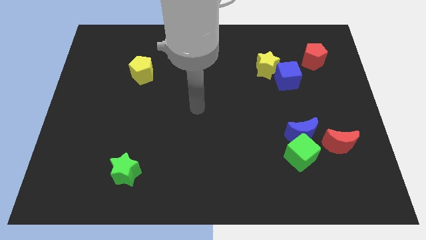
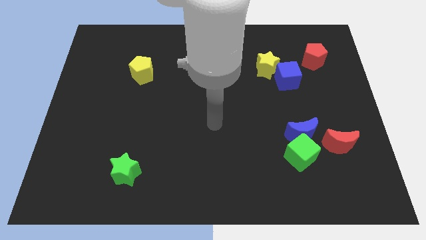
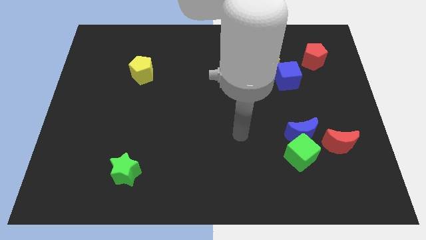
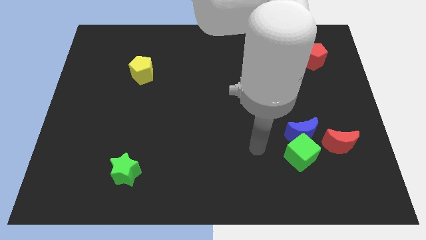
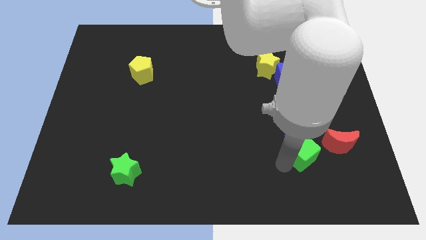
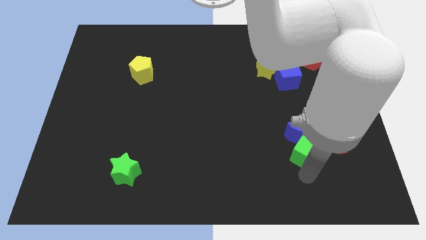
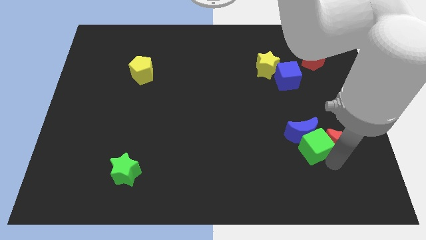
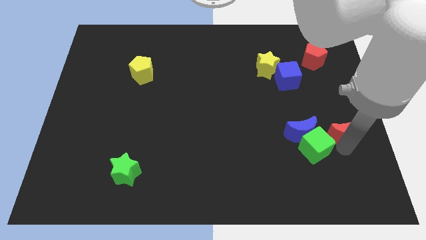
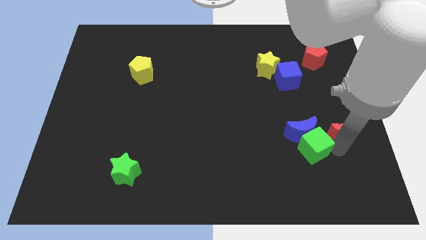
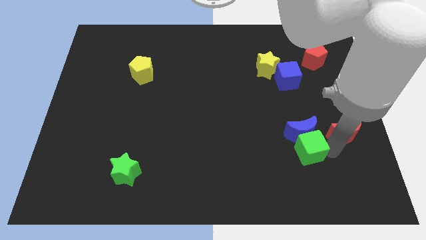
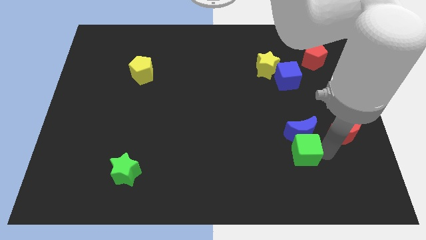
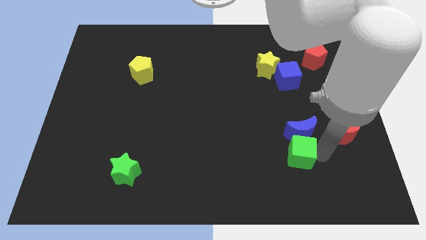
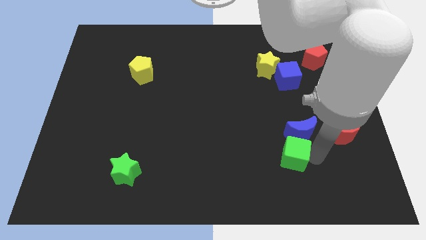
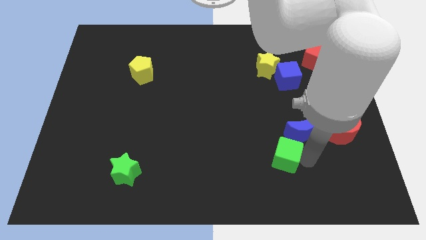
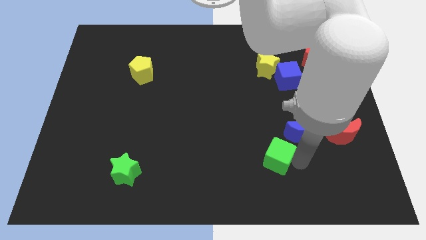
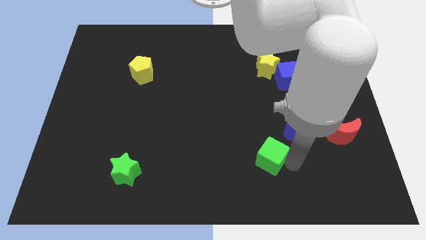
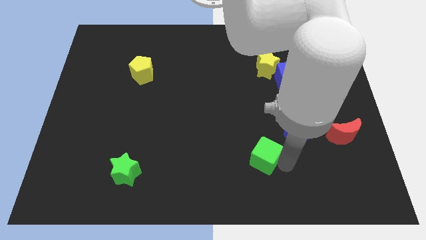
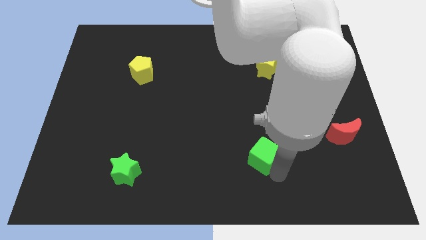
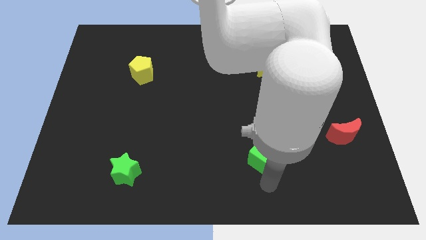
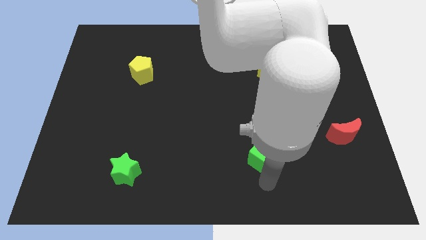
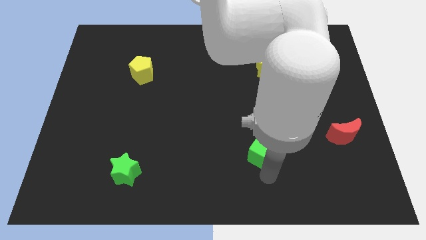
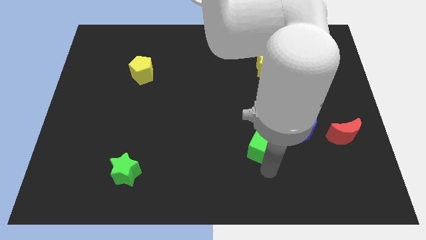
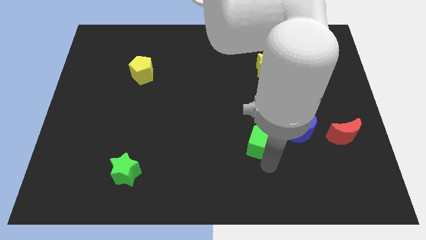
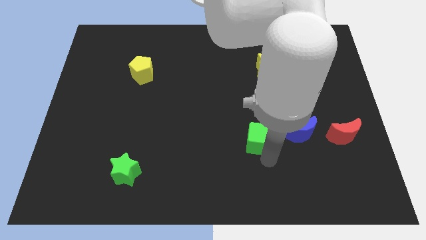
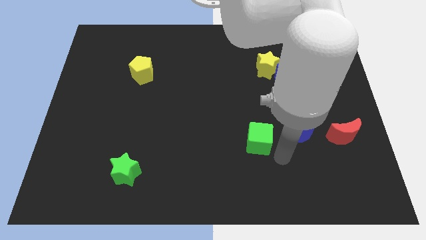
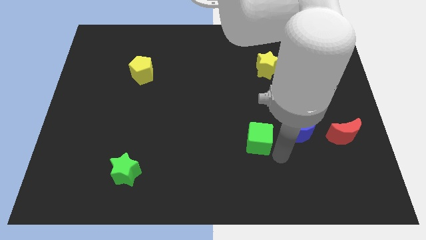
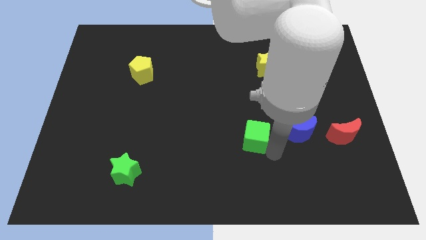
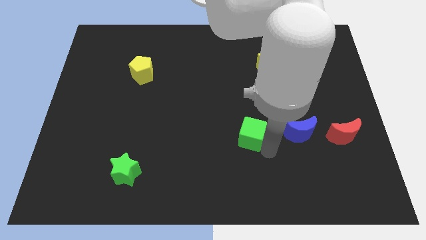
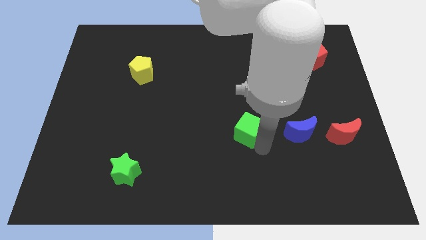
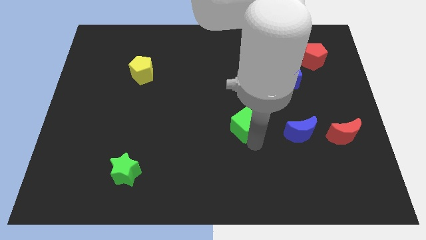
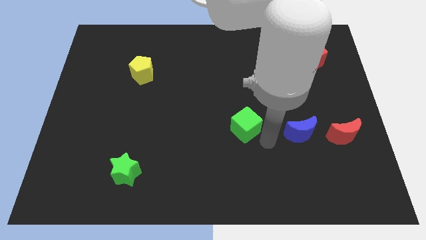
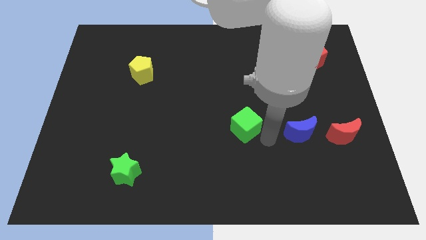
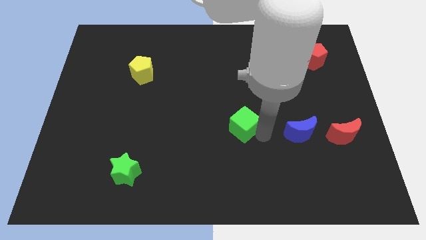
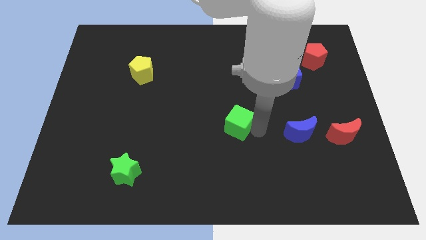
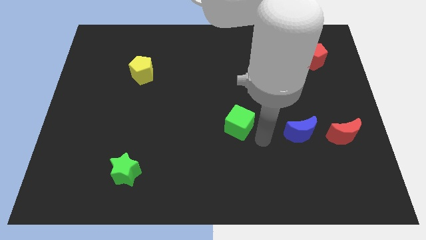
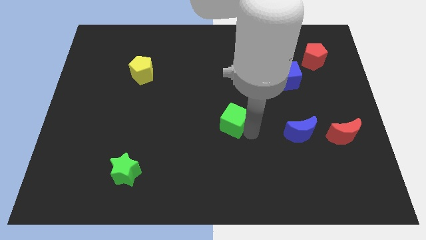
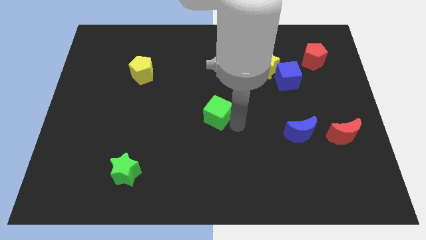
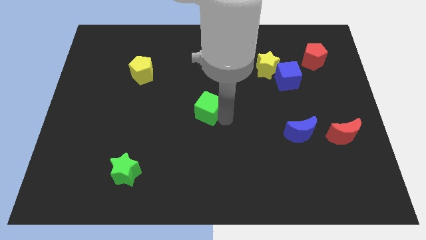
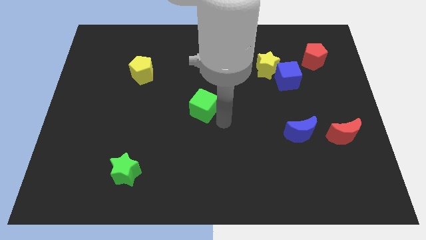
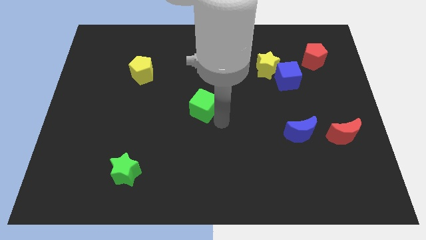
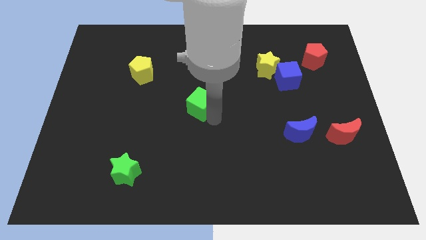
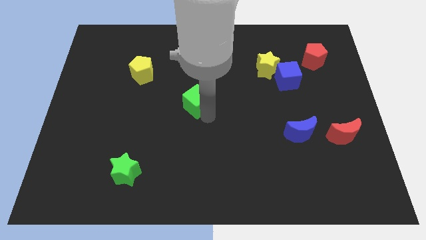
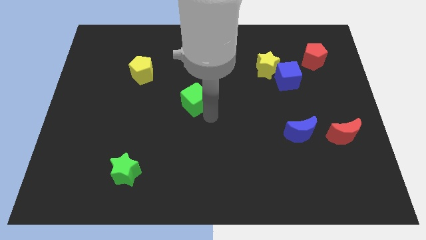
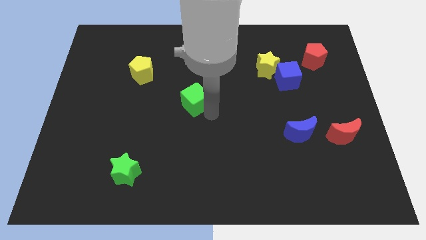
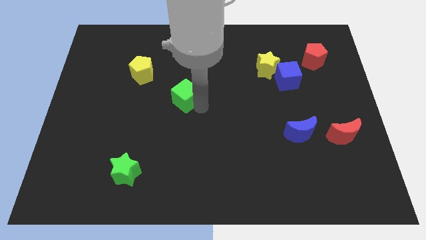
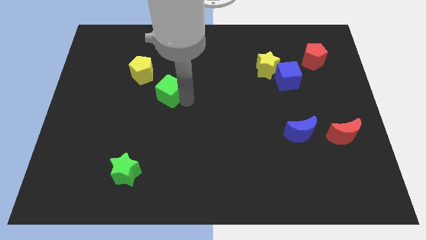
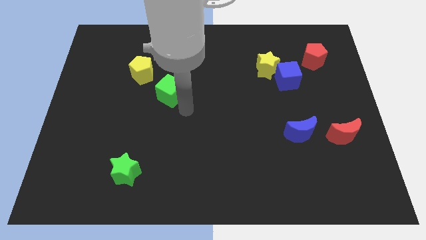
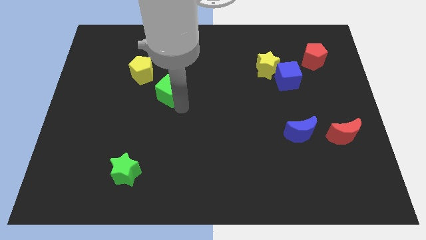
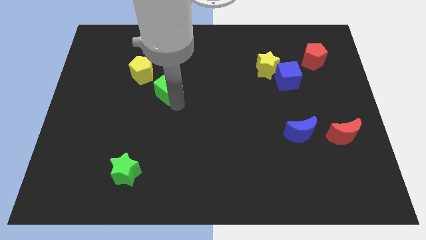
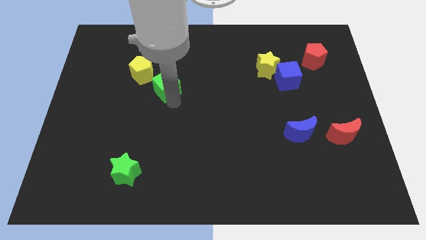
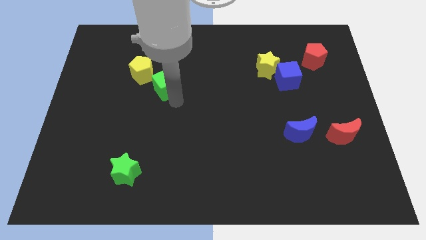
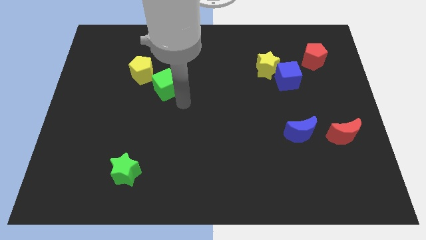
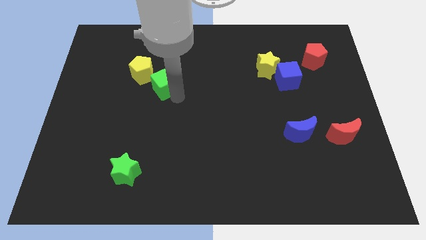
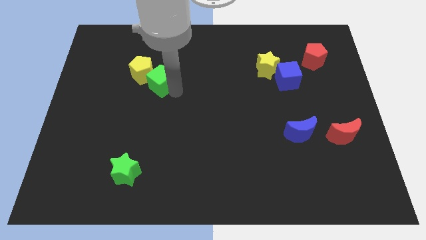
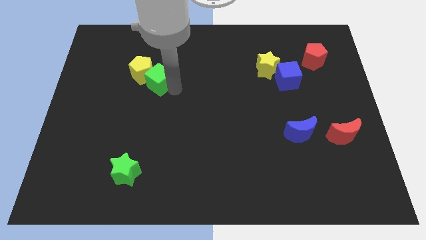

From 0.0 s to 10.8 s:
put the green cube next to the yellow pentagon

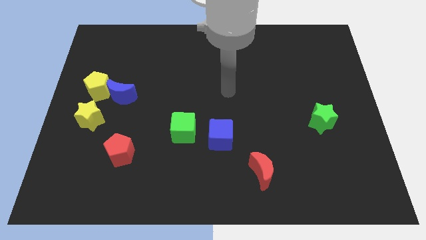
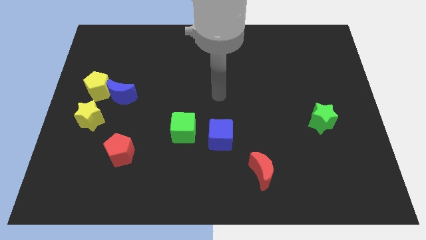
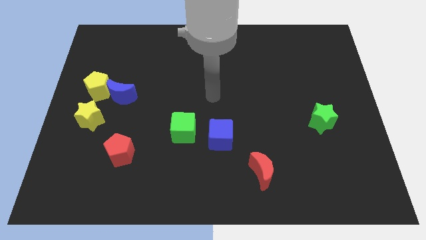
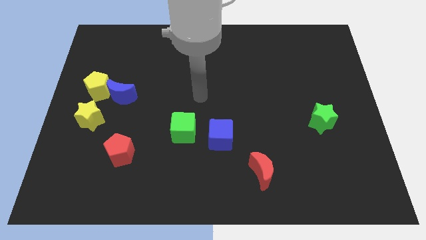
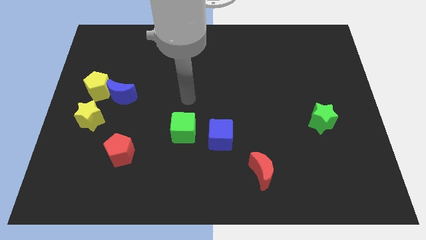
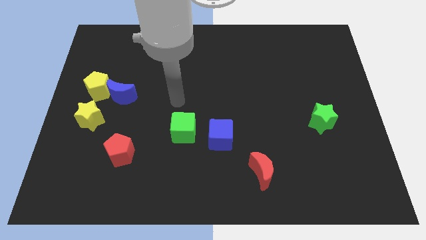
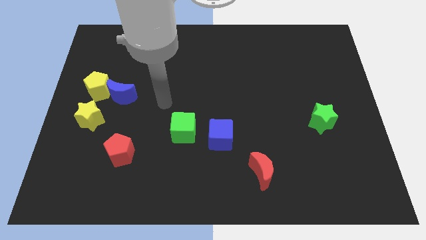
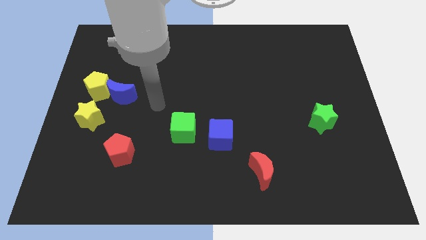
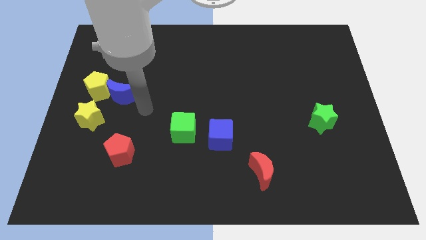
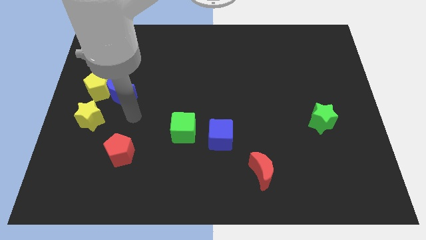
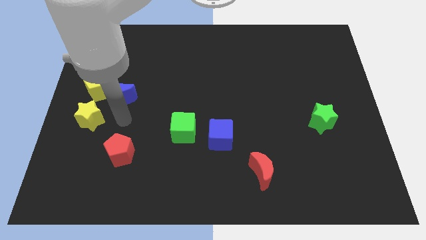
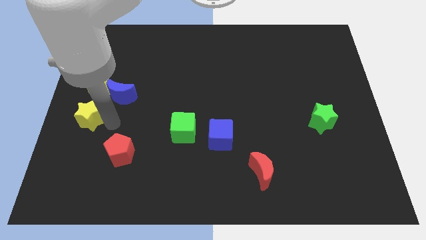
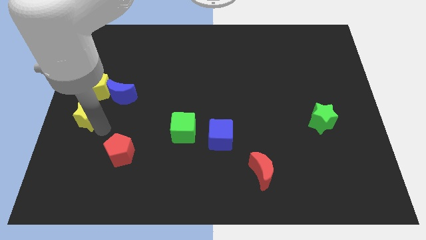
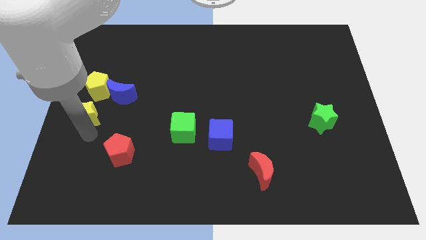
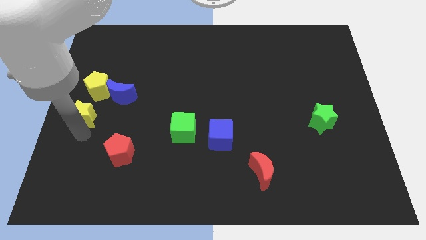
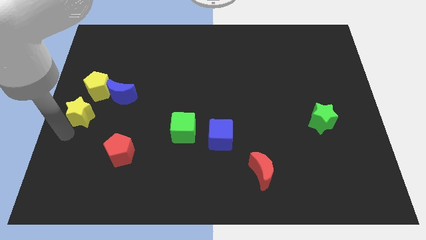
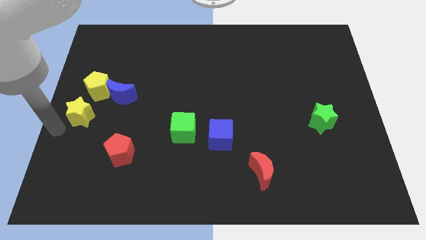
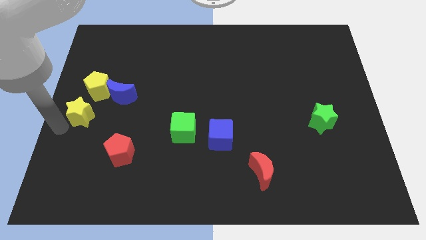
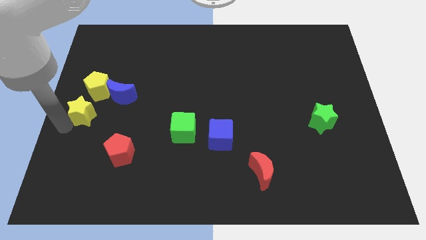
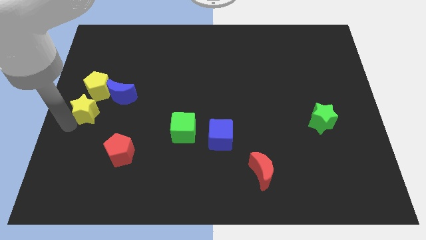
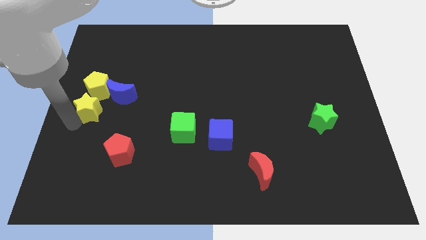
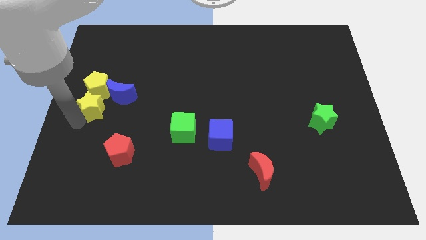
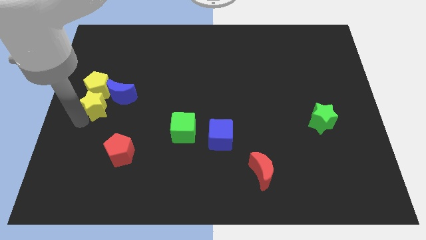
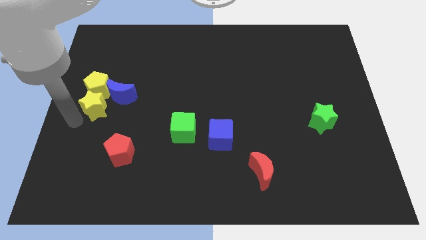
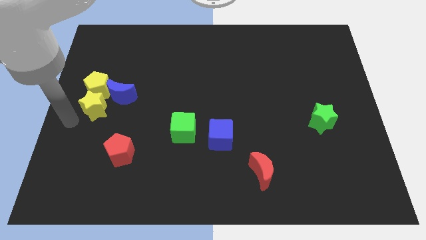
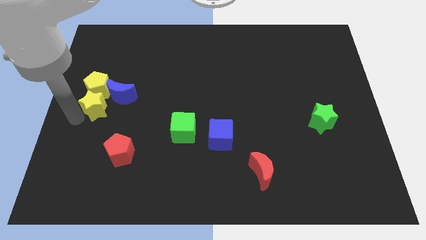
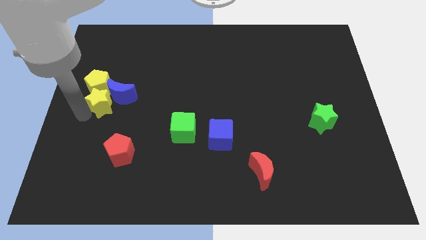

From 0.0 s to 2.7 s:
put the yellow star next to the blue moon
